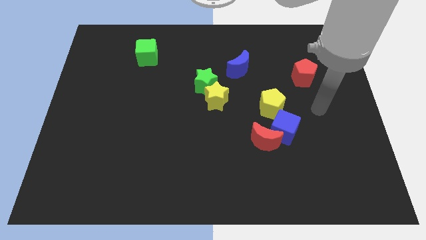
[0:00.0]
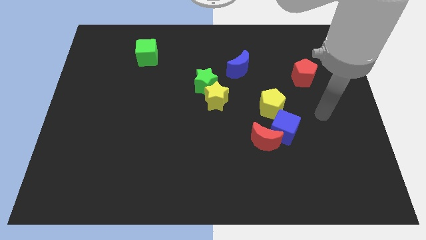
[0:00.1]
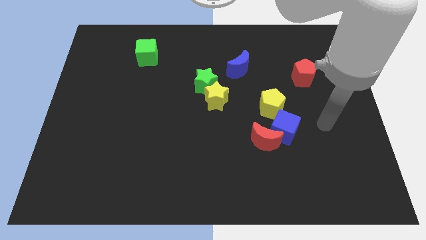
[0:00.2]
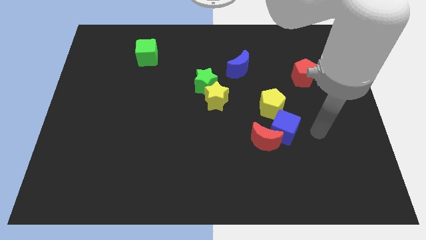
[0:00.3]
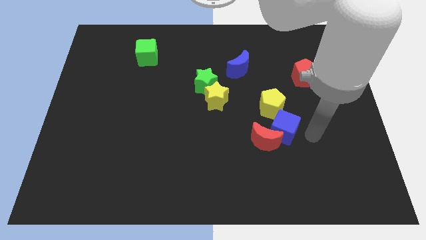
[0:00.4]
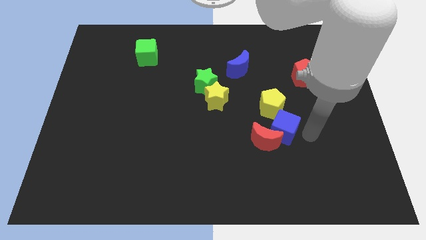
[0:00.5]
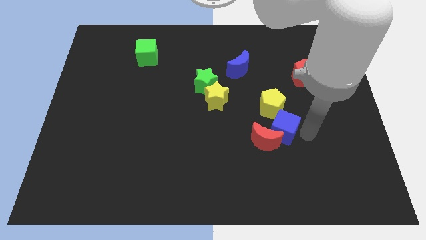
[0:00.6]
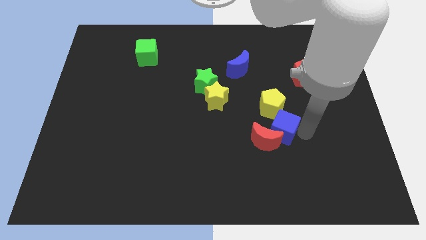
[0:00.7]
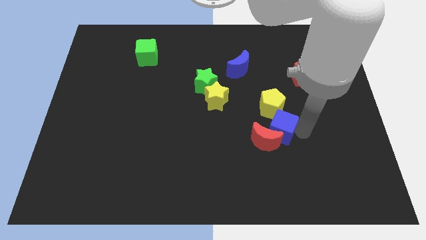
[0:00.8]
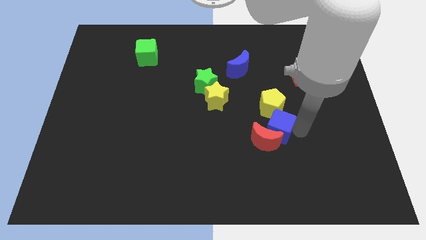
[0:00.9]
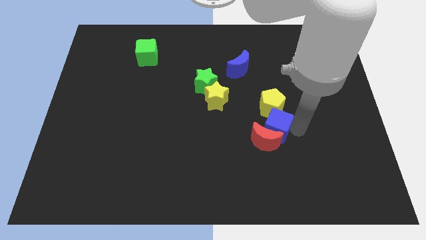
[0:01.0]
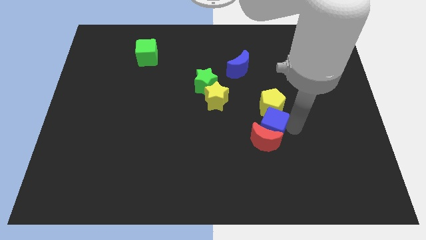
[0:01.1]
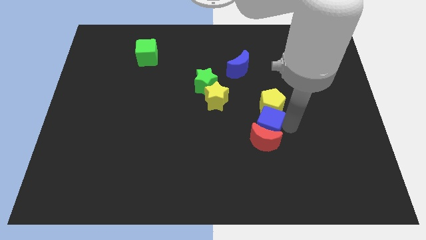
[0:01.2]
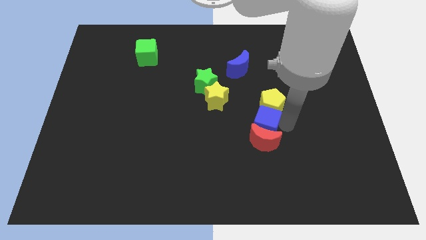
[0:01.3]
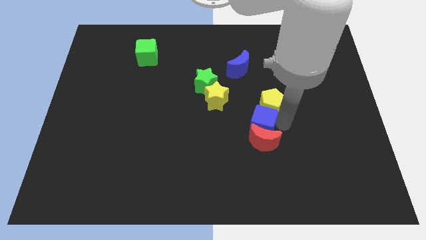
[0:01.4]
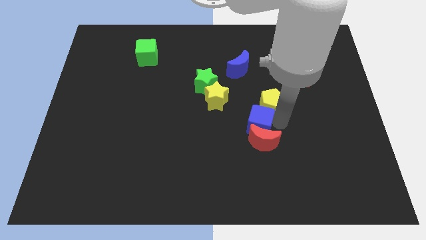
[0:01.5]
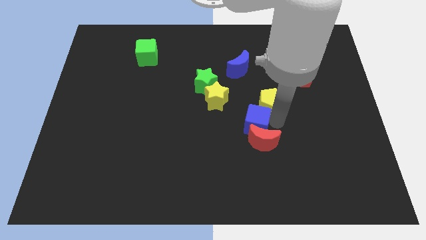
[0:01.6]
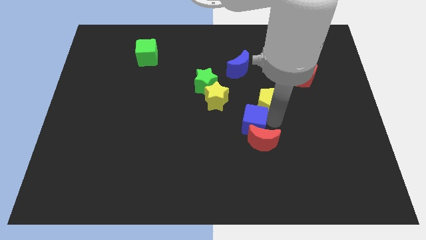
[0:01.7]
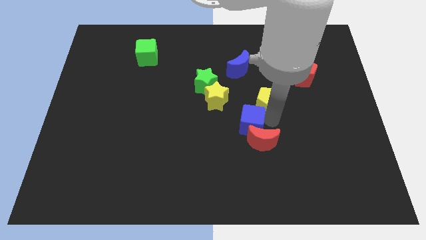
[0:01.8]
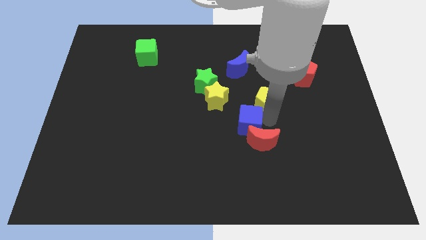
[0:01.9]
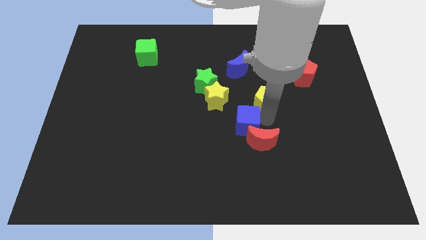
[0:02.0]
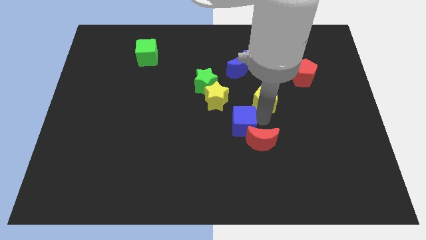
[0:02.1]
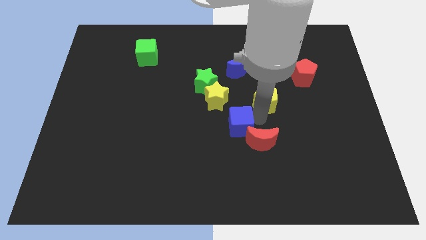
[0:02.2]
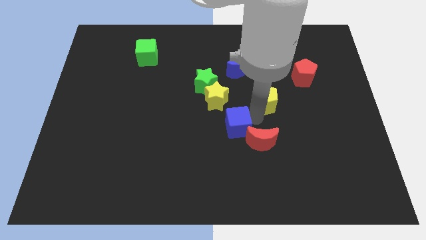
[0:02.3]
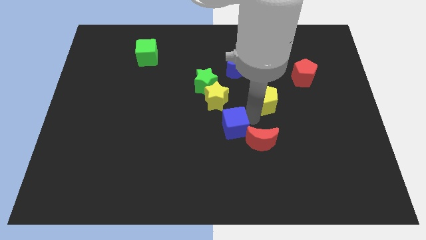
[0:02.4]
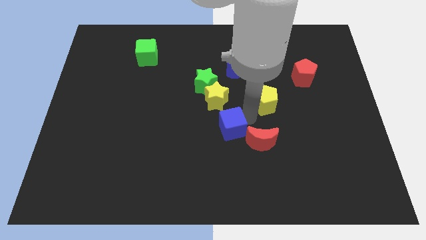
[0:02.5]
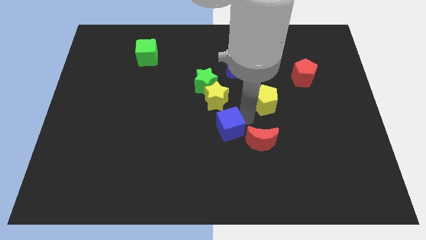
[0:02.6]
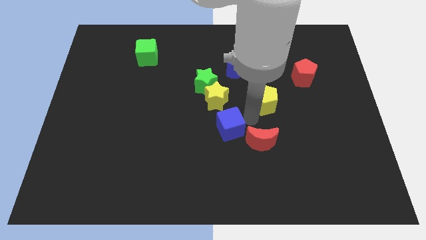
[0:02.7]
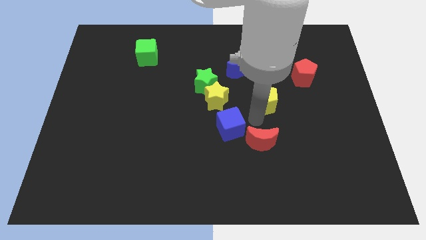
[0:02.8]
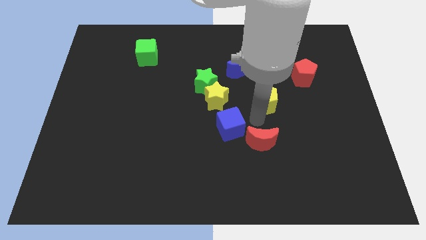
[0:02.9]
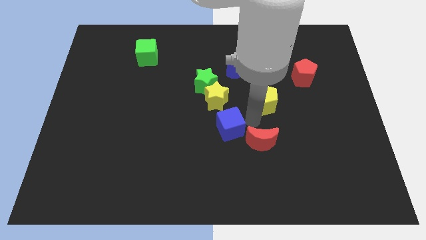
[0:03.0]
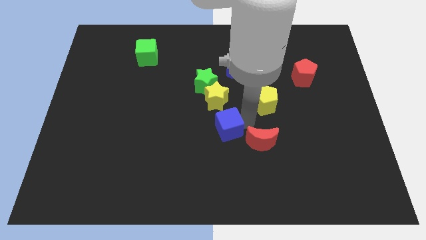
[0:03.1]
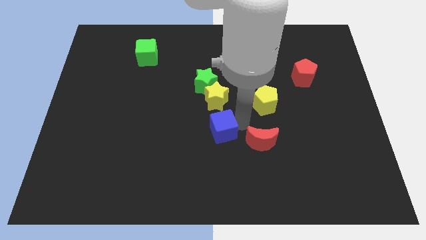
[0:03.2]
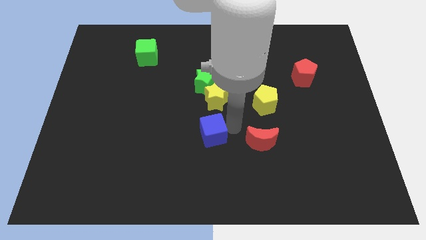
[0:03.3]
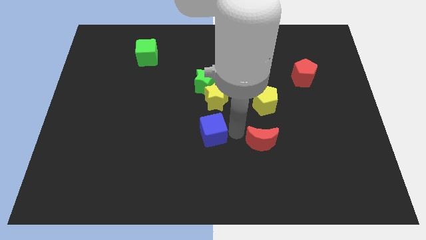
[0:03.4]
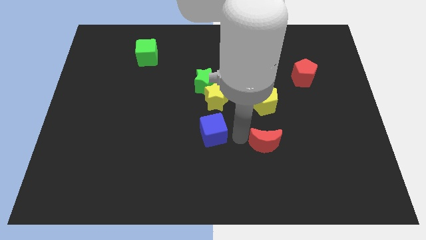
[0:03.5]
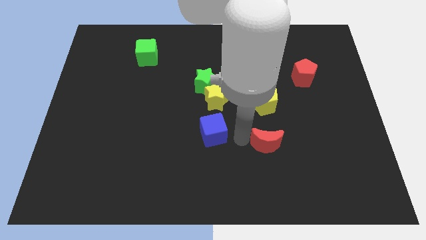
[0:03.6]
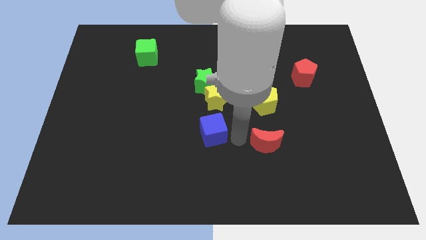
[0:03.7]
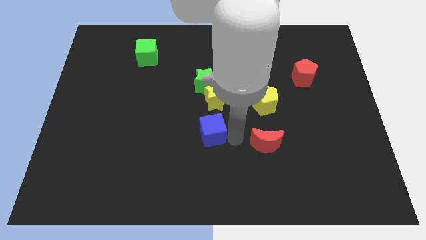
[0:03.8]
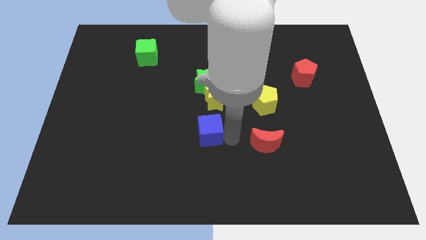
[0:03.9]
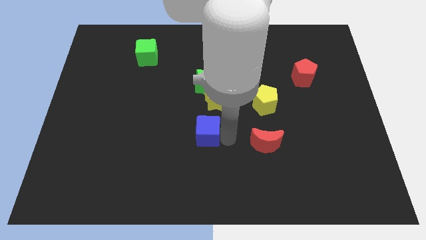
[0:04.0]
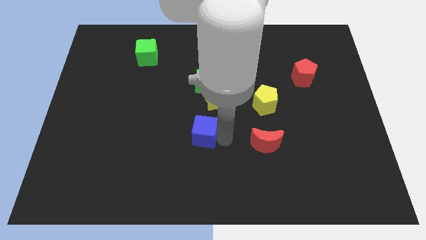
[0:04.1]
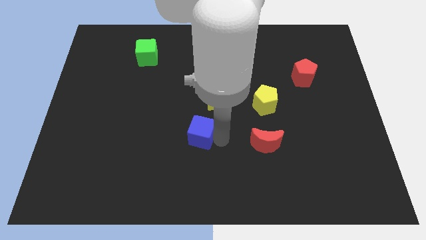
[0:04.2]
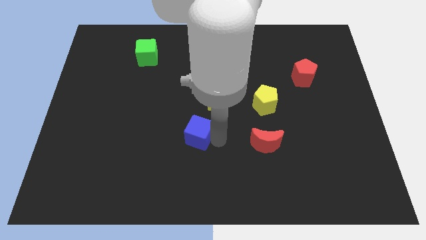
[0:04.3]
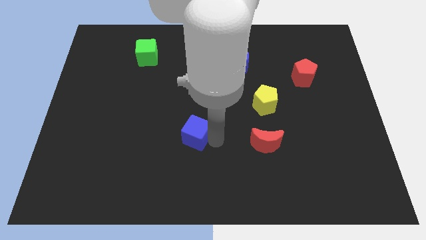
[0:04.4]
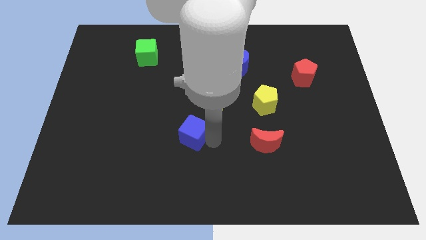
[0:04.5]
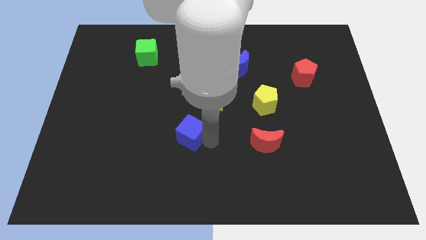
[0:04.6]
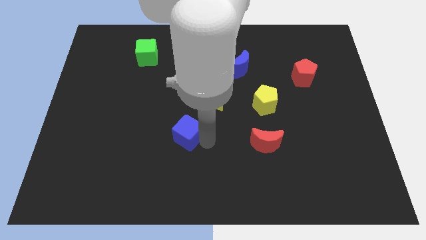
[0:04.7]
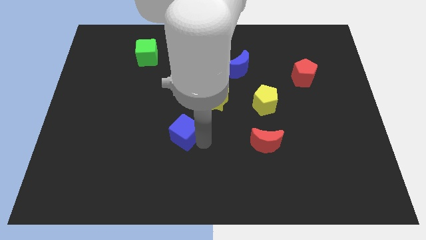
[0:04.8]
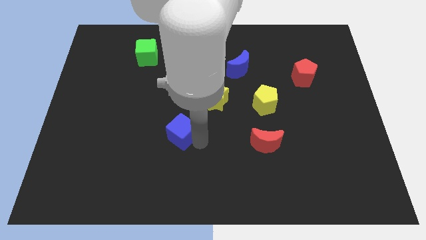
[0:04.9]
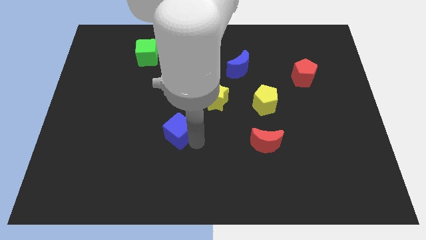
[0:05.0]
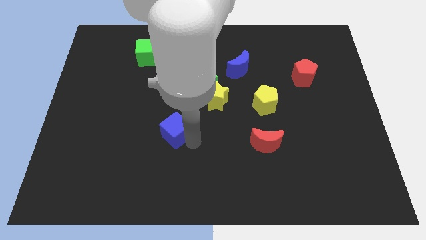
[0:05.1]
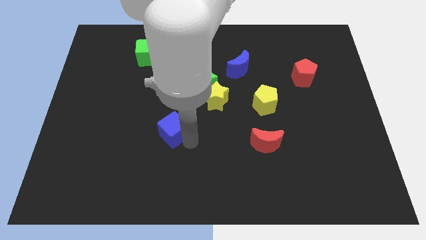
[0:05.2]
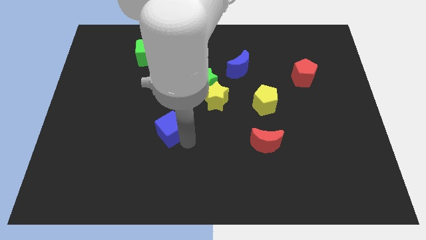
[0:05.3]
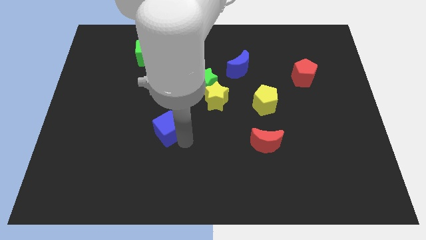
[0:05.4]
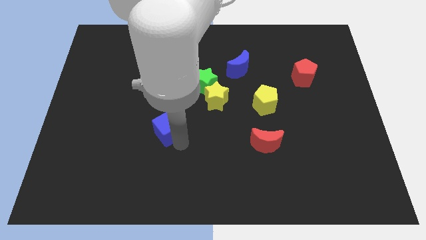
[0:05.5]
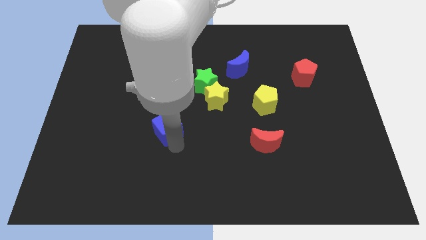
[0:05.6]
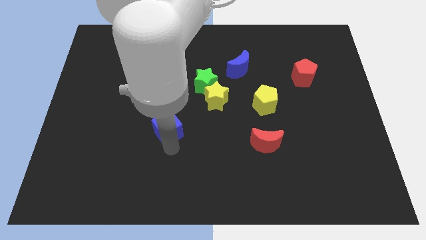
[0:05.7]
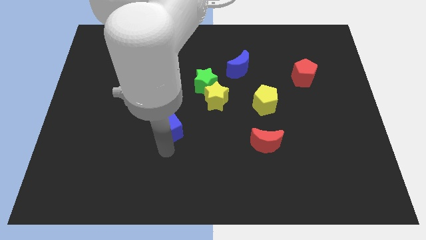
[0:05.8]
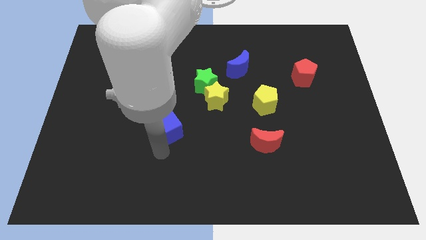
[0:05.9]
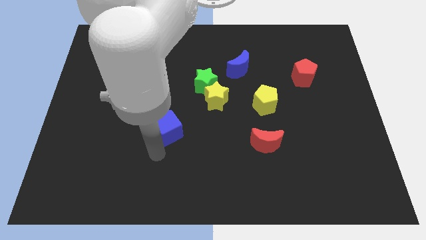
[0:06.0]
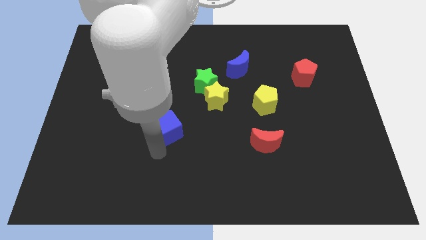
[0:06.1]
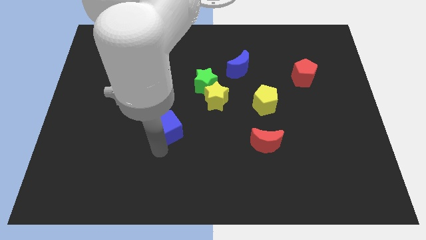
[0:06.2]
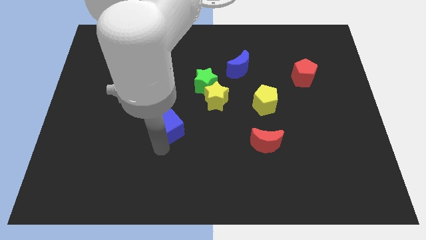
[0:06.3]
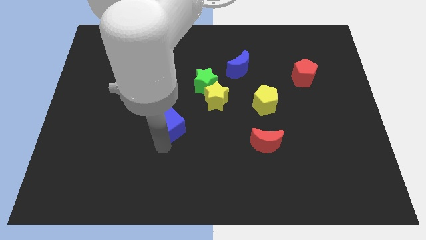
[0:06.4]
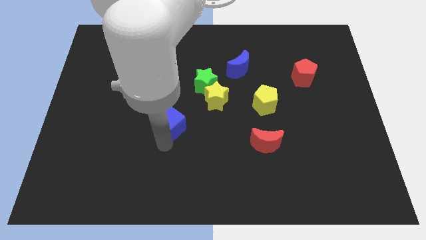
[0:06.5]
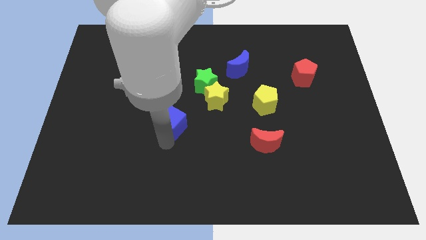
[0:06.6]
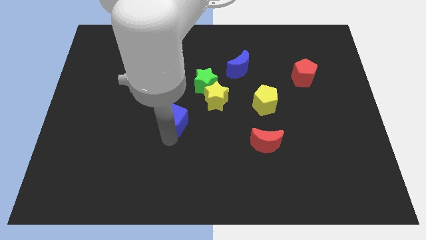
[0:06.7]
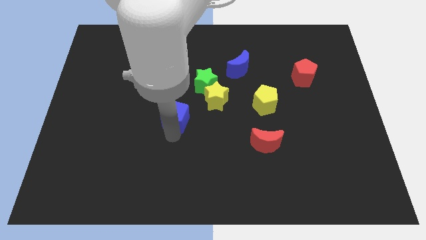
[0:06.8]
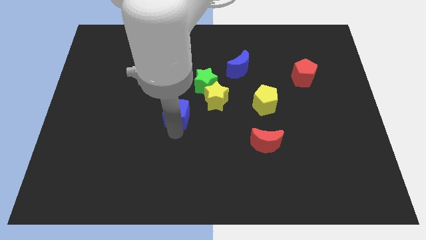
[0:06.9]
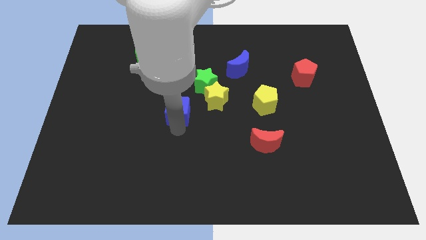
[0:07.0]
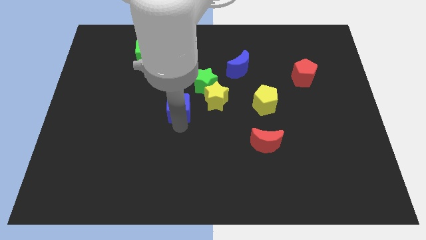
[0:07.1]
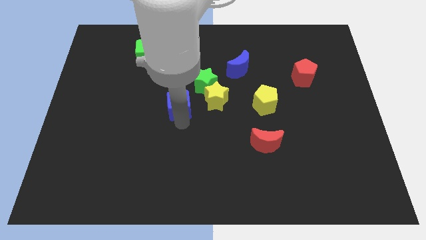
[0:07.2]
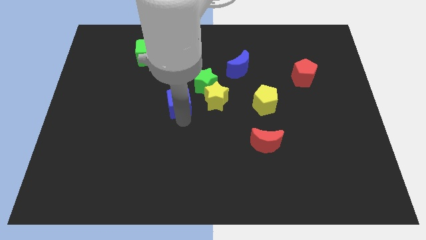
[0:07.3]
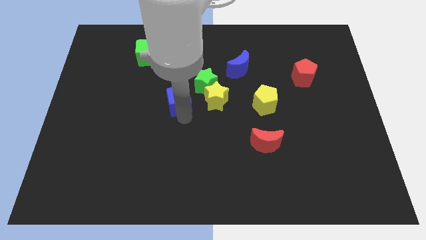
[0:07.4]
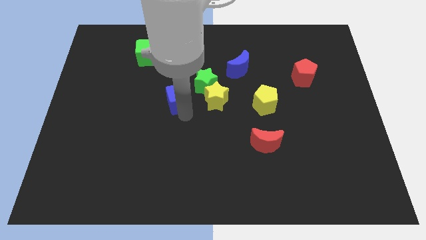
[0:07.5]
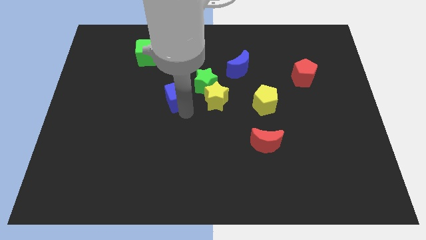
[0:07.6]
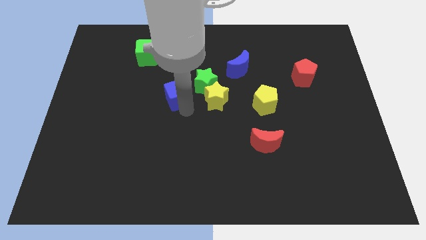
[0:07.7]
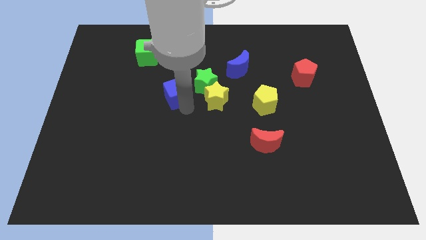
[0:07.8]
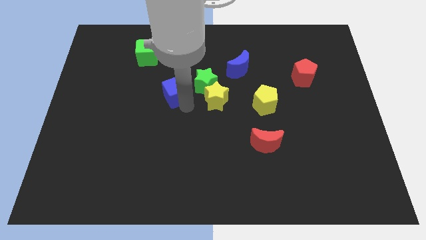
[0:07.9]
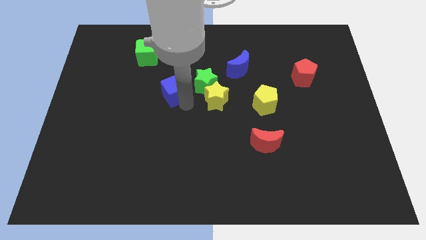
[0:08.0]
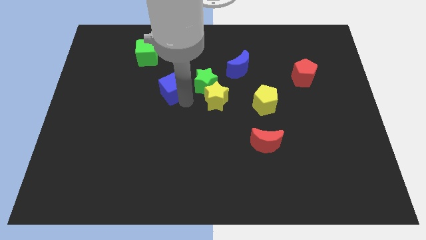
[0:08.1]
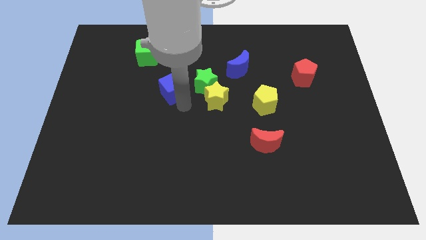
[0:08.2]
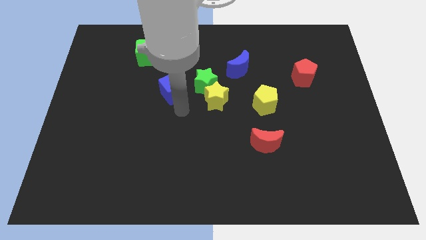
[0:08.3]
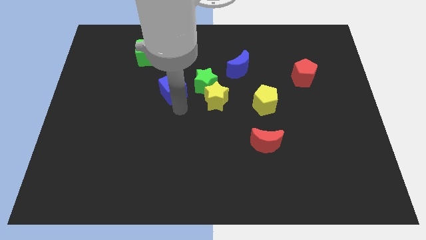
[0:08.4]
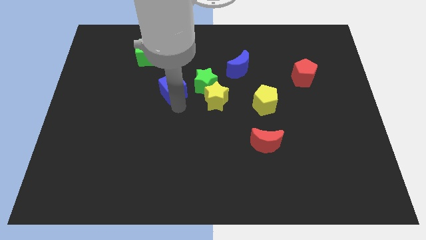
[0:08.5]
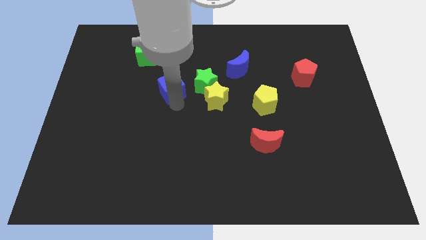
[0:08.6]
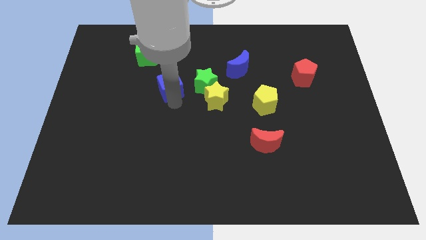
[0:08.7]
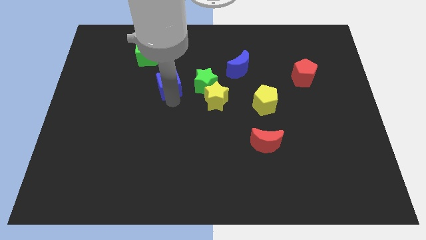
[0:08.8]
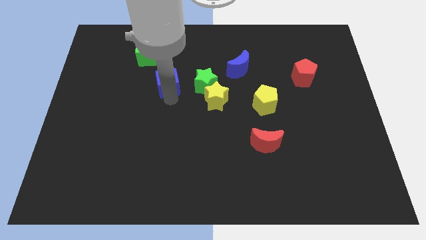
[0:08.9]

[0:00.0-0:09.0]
slide the blue cube to the bottom right of the green cube
